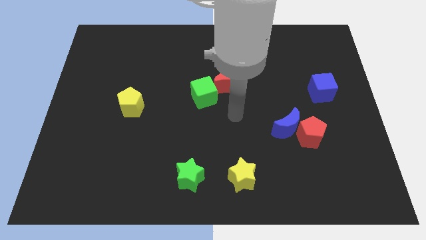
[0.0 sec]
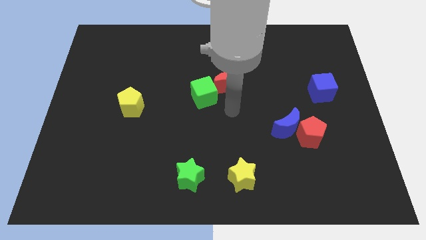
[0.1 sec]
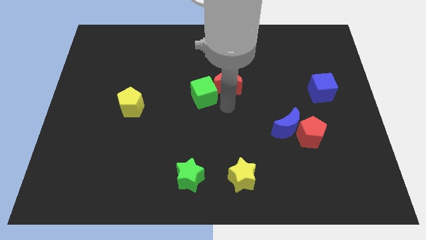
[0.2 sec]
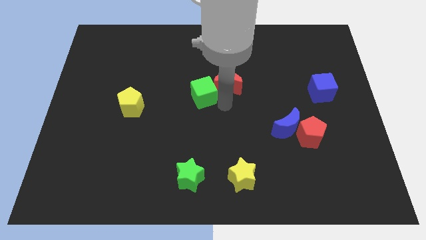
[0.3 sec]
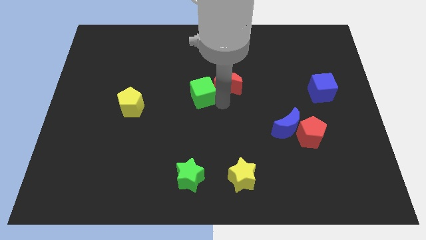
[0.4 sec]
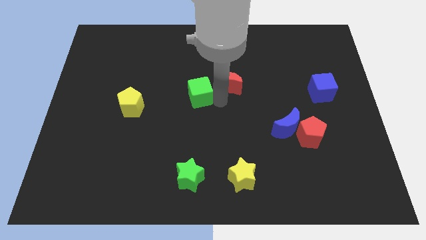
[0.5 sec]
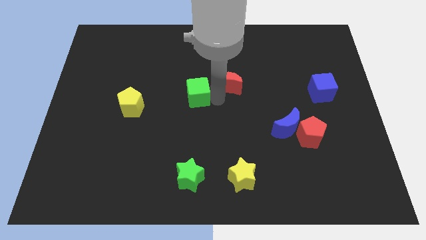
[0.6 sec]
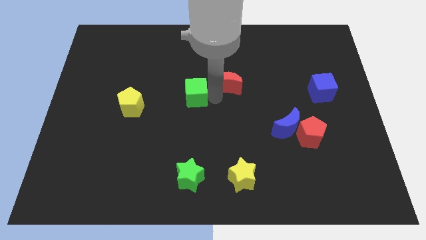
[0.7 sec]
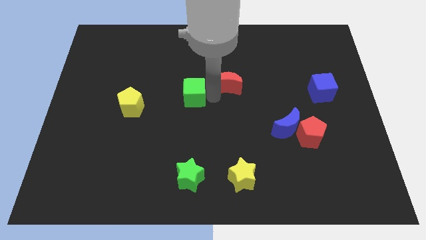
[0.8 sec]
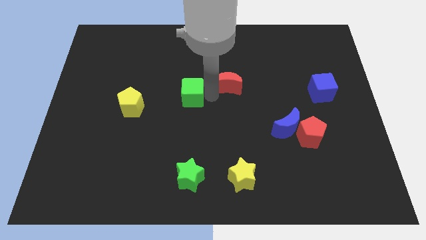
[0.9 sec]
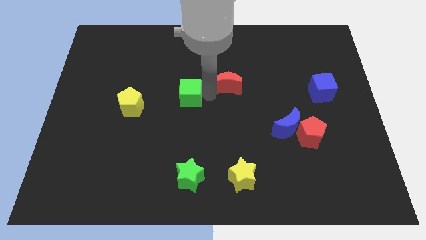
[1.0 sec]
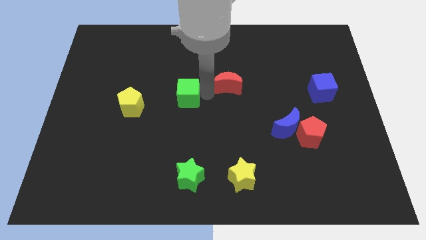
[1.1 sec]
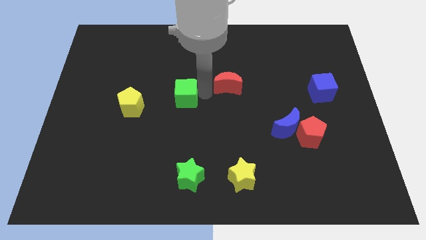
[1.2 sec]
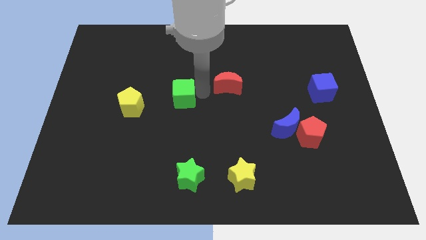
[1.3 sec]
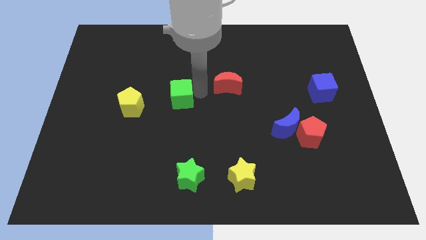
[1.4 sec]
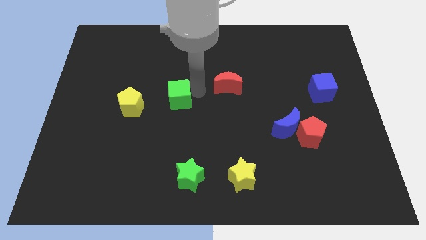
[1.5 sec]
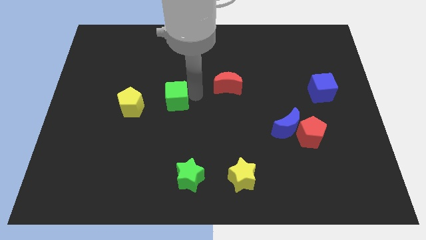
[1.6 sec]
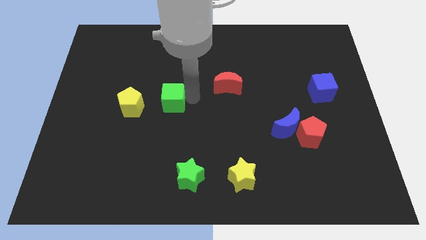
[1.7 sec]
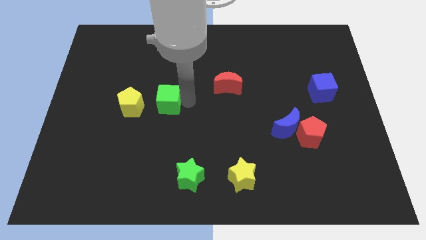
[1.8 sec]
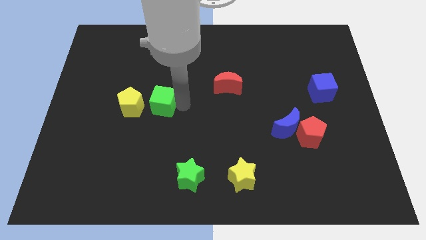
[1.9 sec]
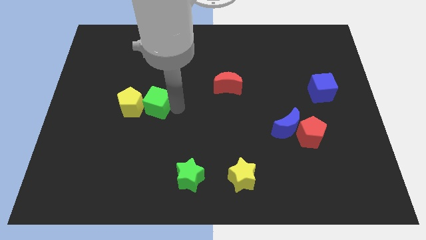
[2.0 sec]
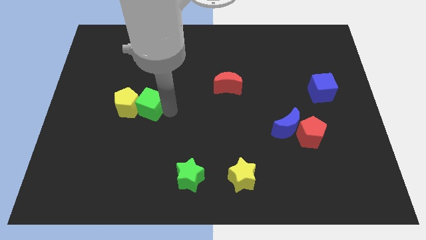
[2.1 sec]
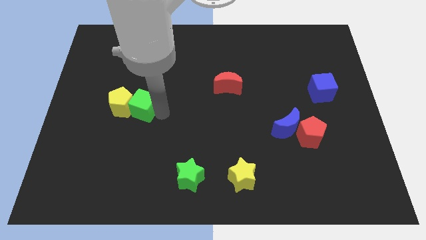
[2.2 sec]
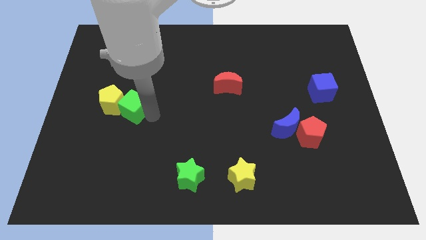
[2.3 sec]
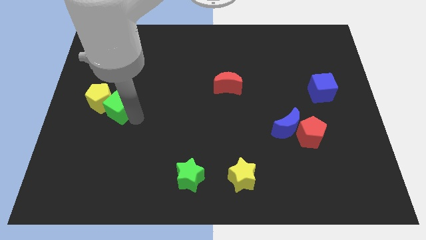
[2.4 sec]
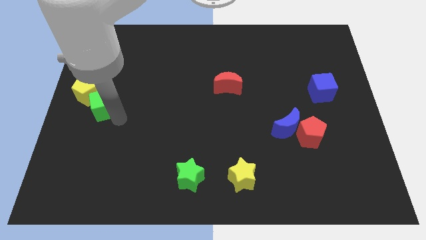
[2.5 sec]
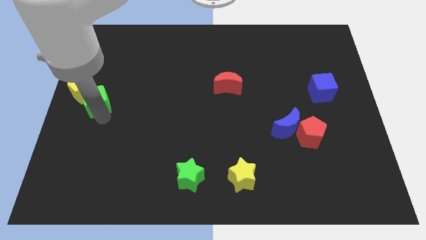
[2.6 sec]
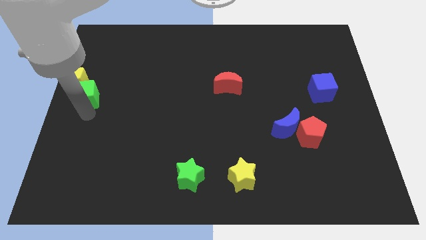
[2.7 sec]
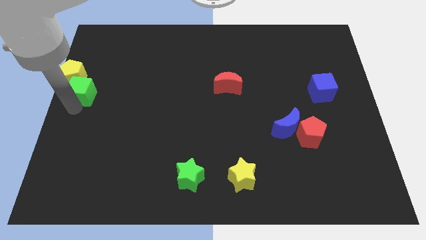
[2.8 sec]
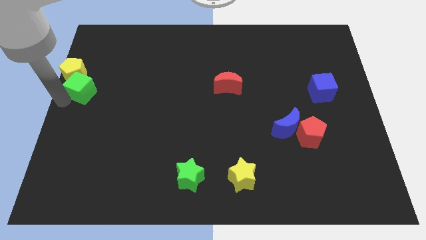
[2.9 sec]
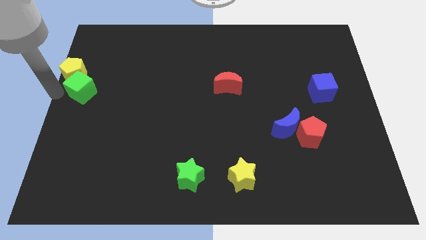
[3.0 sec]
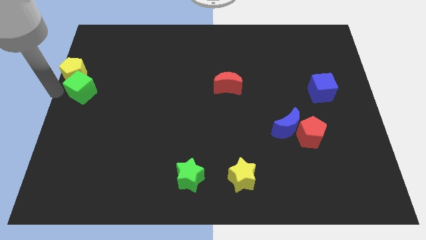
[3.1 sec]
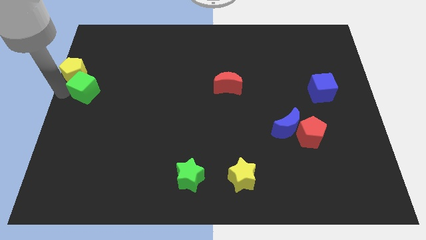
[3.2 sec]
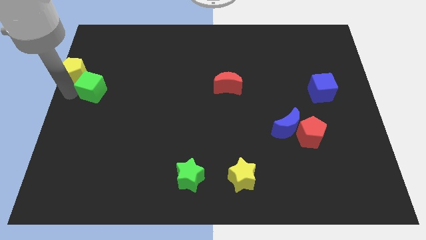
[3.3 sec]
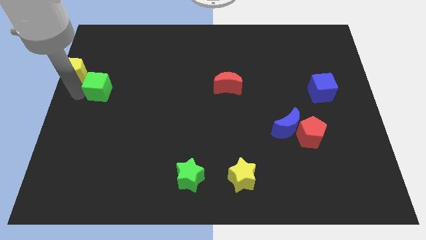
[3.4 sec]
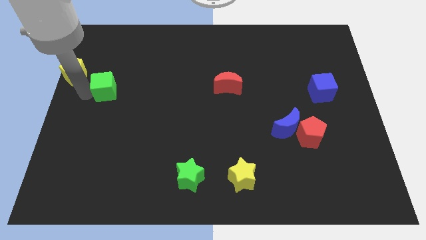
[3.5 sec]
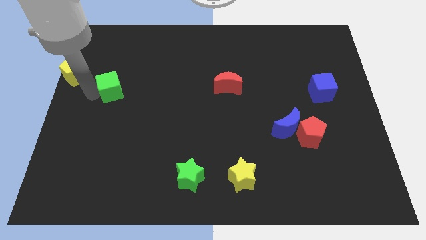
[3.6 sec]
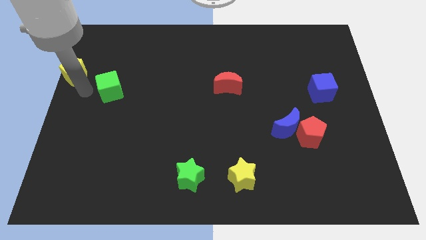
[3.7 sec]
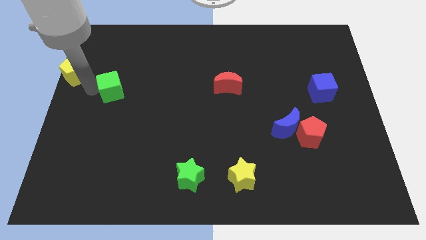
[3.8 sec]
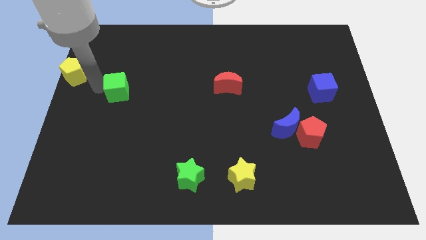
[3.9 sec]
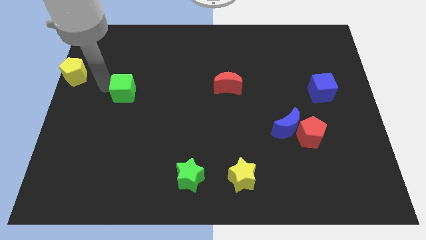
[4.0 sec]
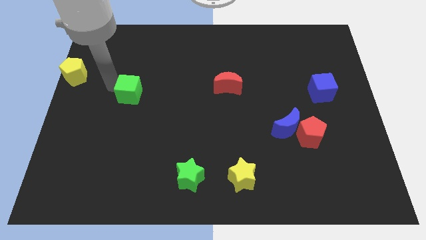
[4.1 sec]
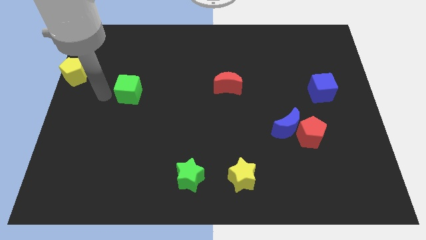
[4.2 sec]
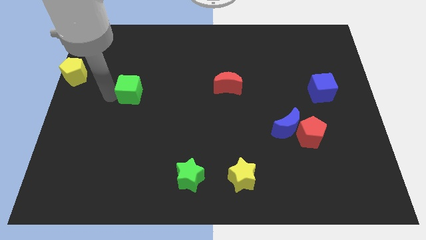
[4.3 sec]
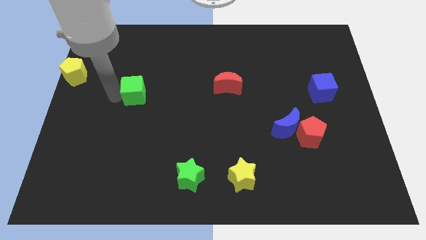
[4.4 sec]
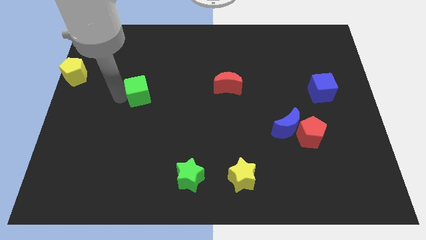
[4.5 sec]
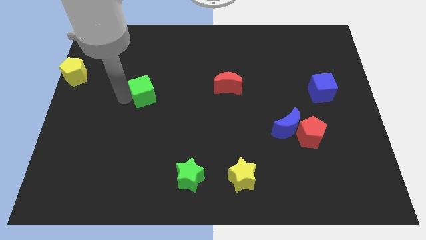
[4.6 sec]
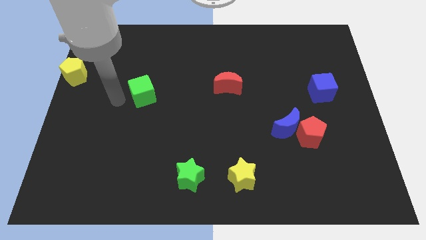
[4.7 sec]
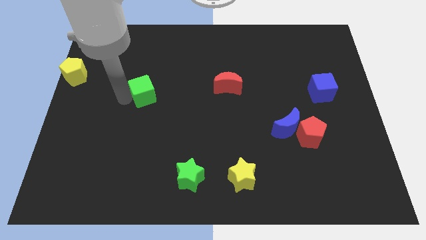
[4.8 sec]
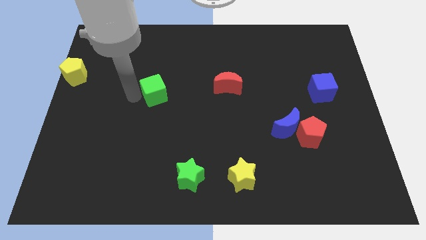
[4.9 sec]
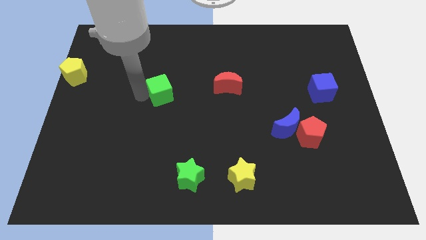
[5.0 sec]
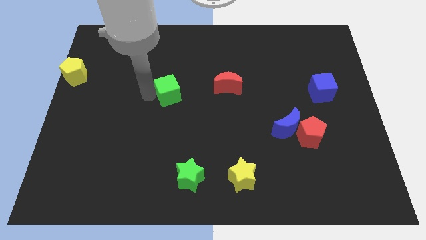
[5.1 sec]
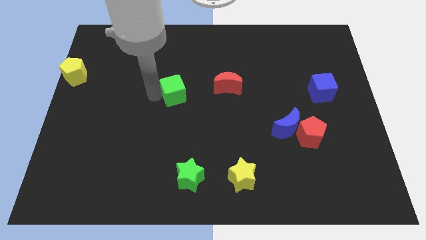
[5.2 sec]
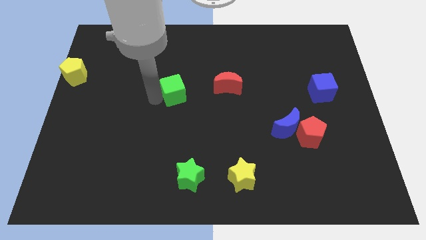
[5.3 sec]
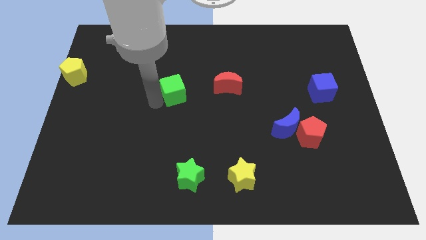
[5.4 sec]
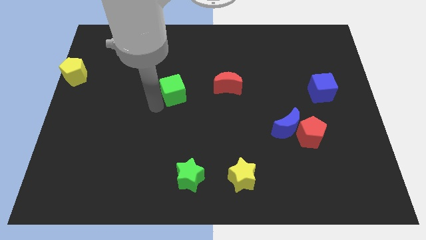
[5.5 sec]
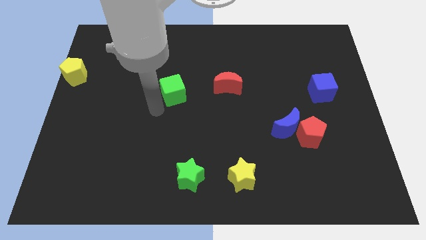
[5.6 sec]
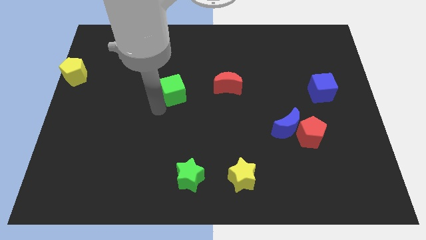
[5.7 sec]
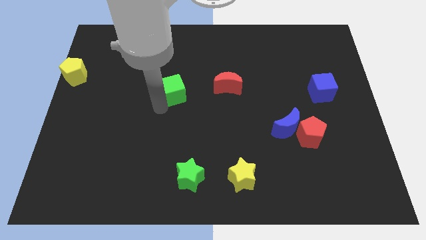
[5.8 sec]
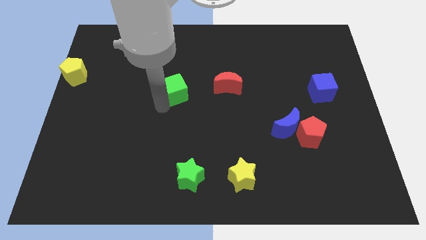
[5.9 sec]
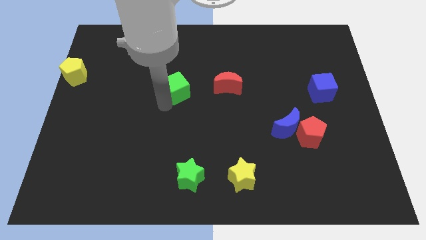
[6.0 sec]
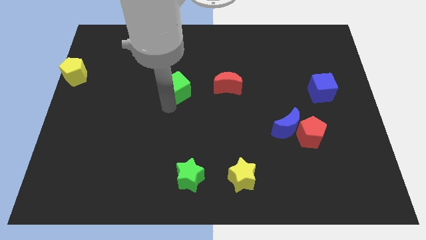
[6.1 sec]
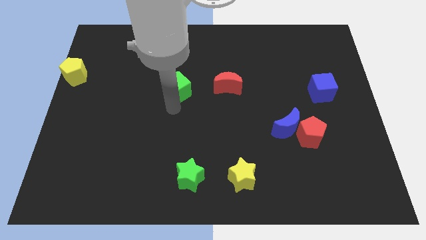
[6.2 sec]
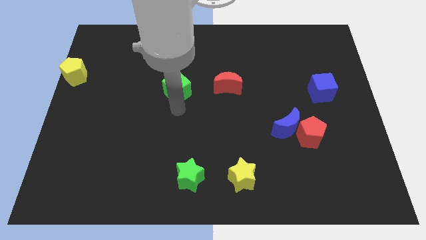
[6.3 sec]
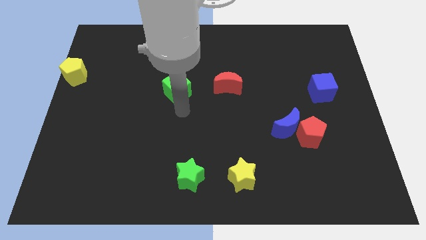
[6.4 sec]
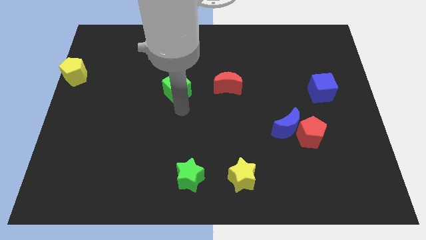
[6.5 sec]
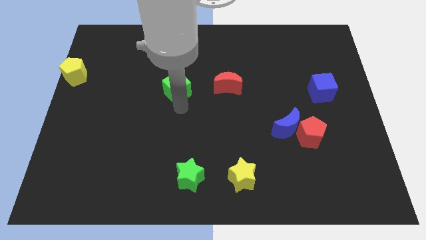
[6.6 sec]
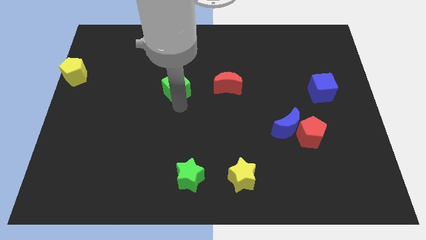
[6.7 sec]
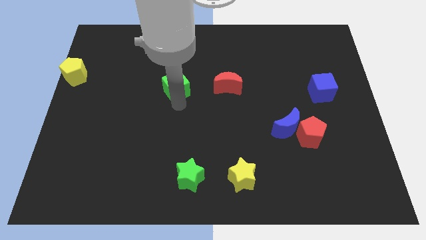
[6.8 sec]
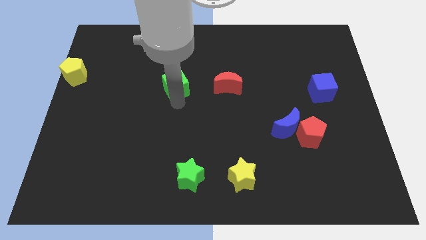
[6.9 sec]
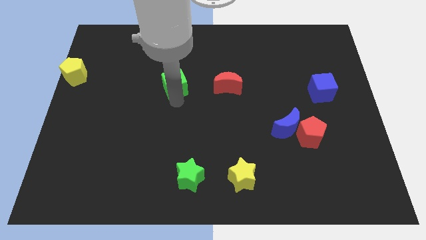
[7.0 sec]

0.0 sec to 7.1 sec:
slide the green cube up and then left a little bit

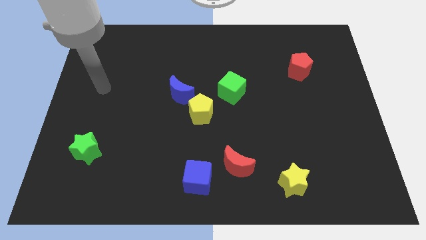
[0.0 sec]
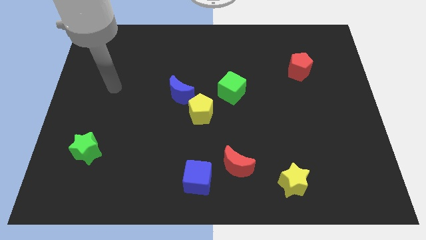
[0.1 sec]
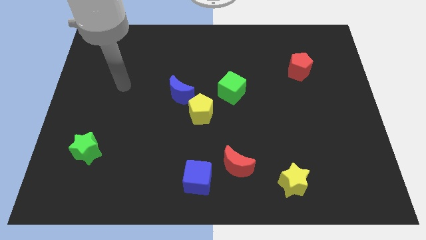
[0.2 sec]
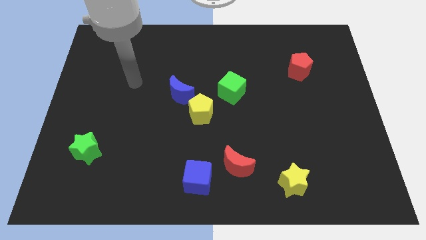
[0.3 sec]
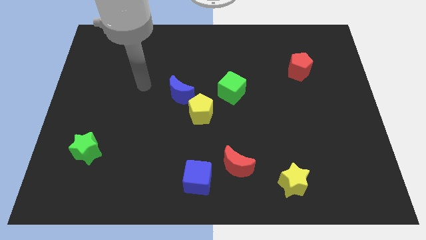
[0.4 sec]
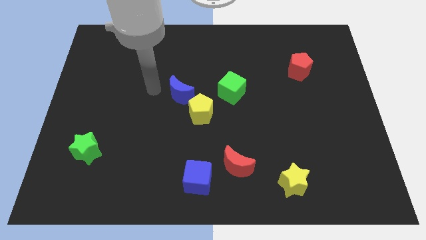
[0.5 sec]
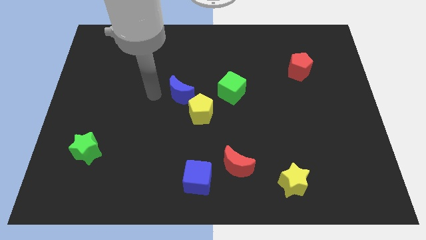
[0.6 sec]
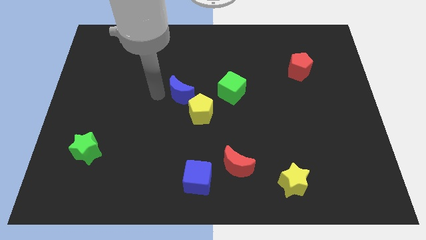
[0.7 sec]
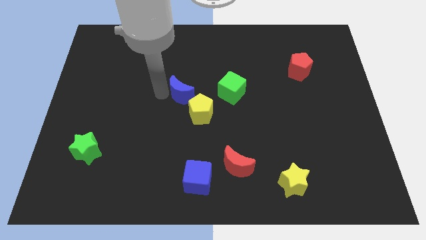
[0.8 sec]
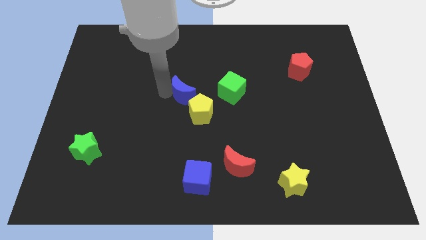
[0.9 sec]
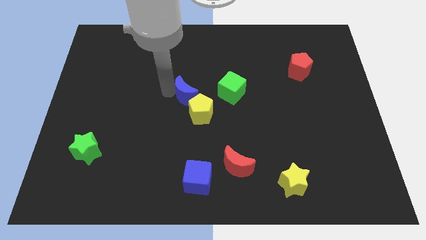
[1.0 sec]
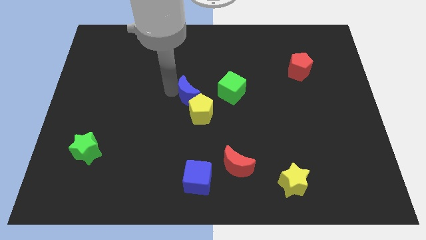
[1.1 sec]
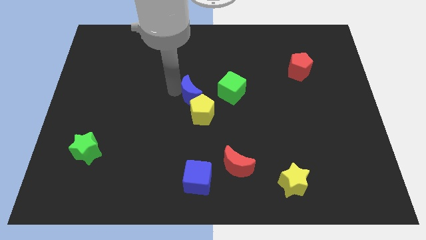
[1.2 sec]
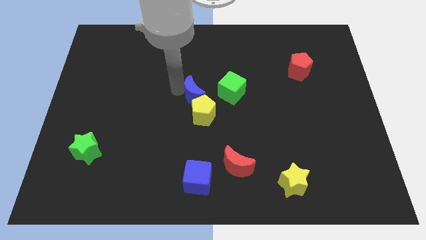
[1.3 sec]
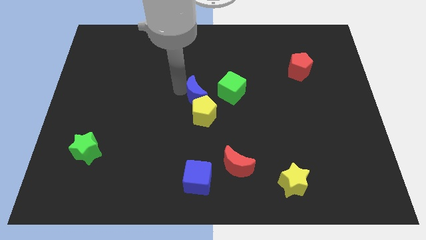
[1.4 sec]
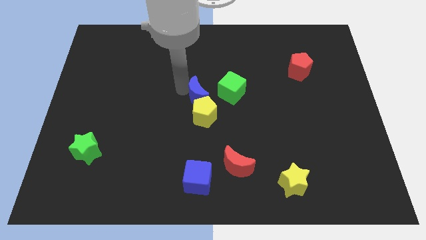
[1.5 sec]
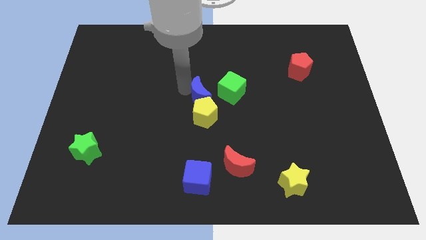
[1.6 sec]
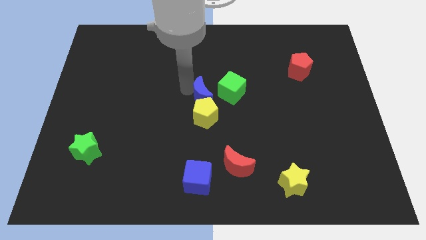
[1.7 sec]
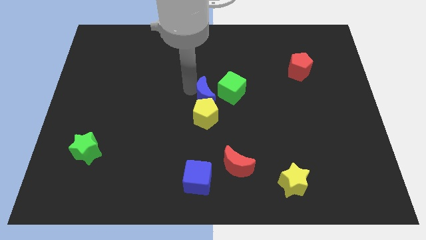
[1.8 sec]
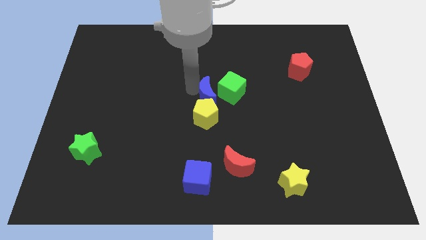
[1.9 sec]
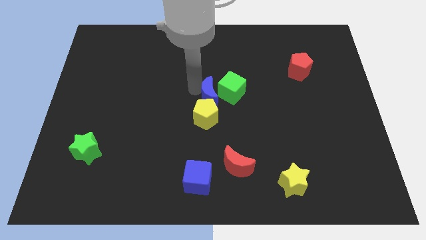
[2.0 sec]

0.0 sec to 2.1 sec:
slide the blue moon right somewhat
